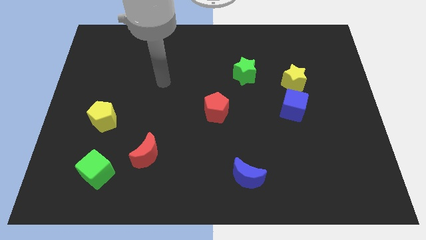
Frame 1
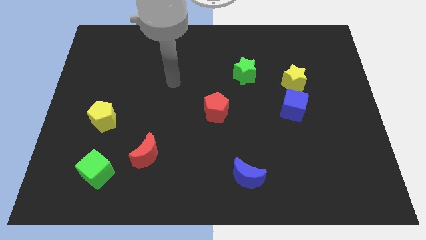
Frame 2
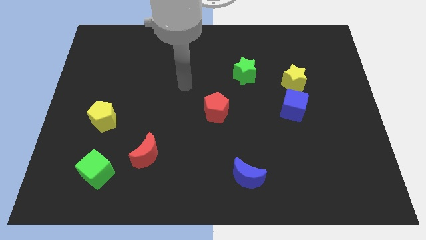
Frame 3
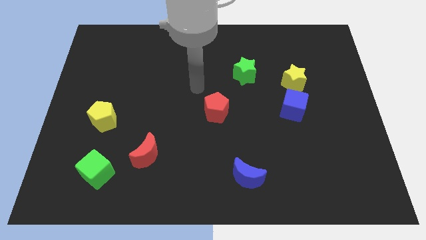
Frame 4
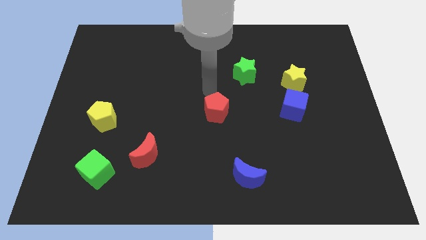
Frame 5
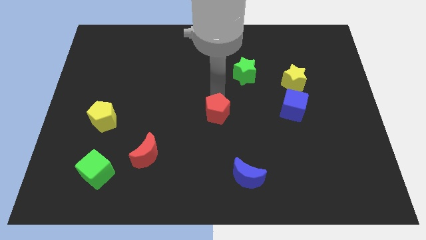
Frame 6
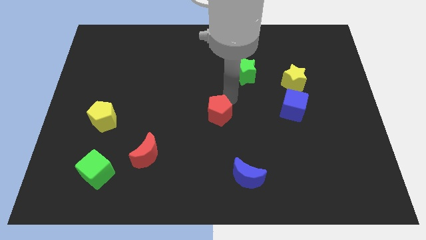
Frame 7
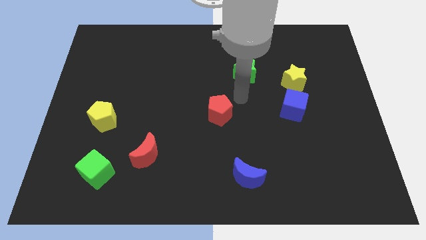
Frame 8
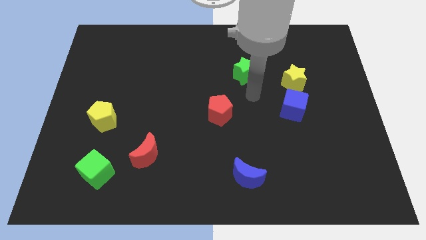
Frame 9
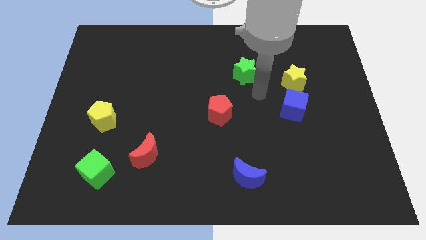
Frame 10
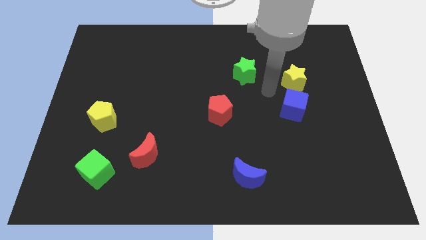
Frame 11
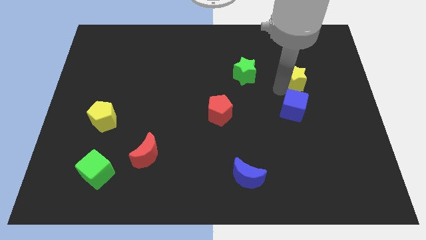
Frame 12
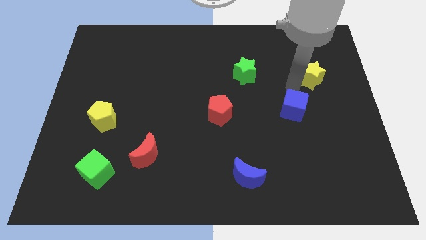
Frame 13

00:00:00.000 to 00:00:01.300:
separate the blue cube from the yellow star

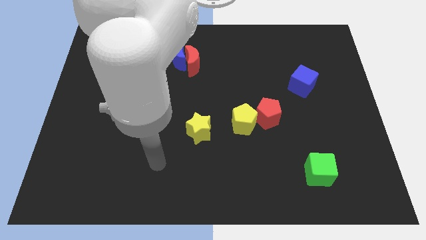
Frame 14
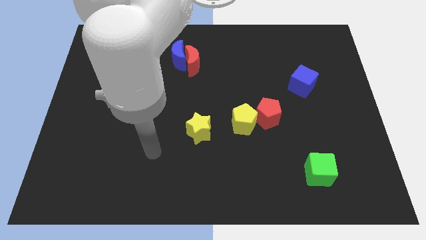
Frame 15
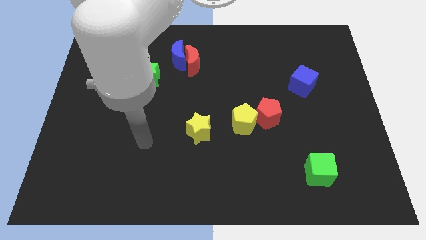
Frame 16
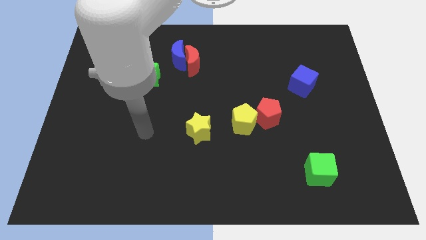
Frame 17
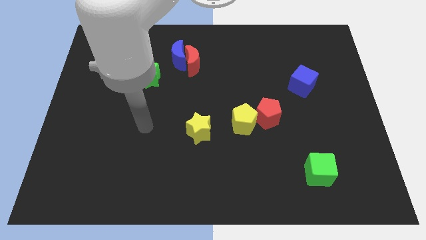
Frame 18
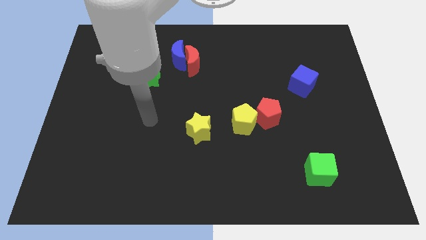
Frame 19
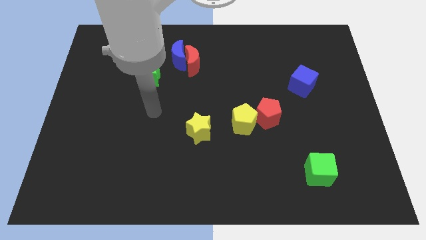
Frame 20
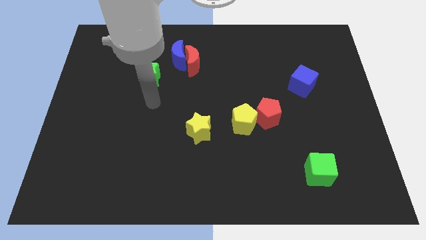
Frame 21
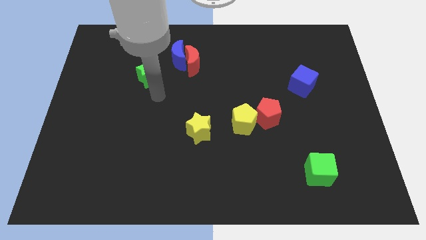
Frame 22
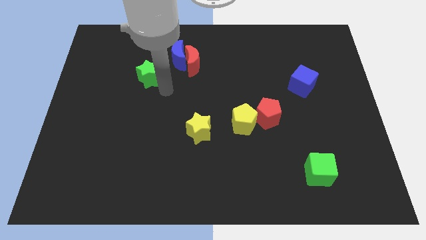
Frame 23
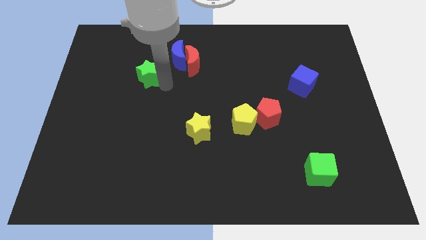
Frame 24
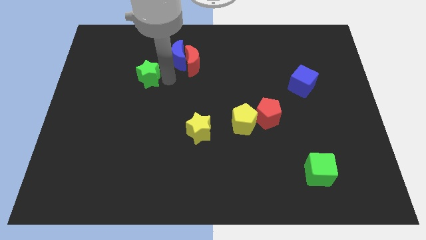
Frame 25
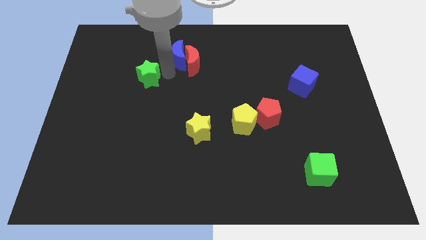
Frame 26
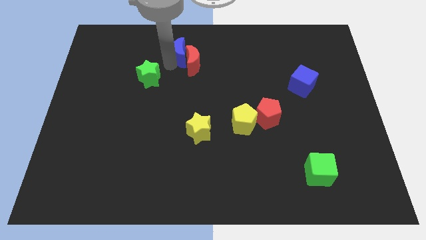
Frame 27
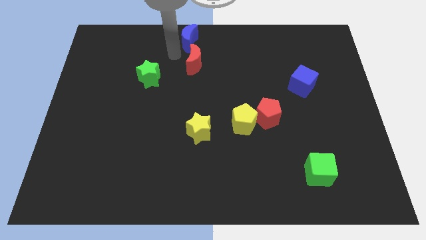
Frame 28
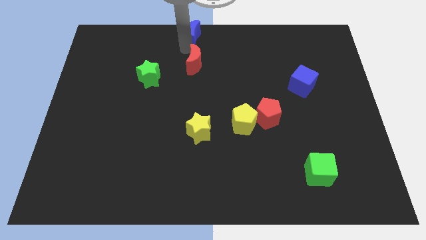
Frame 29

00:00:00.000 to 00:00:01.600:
pull the red moon apart from the blue moon

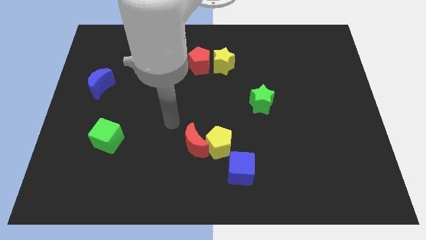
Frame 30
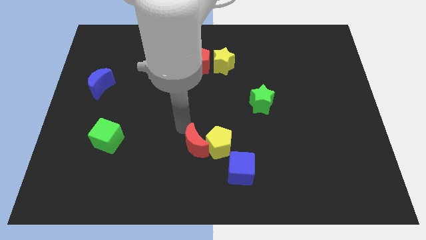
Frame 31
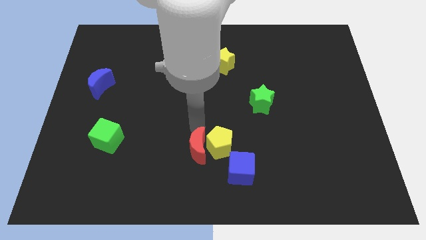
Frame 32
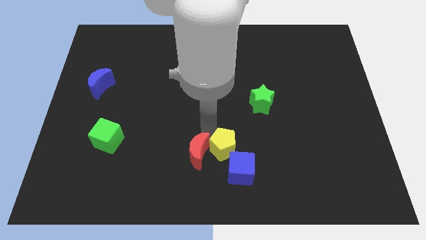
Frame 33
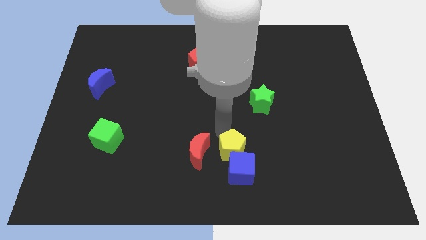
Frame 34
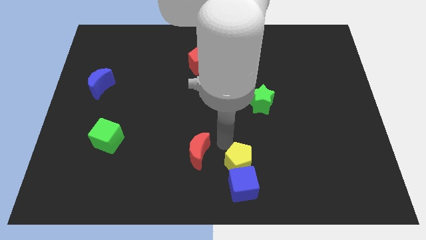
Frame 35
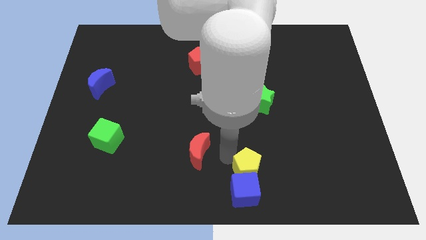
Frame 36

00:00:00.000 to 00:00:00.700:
pull the red moon apart from the yellow pentagon

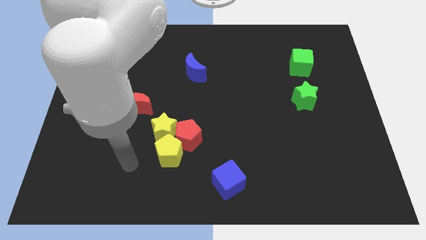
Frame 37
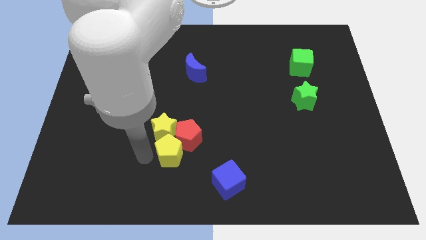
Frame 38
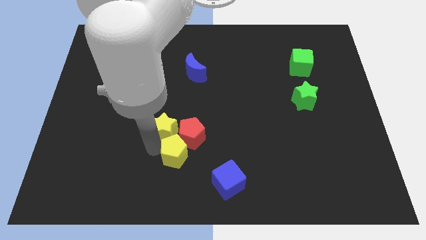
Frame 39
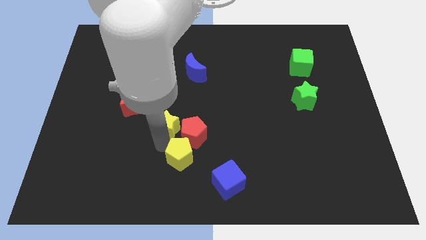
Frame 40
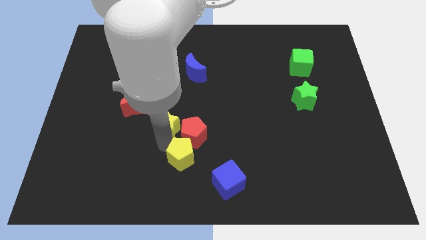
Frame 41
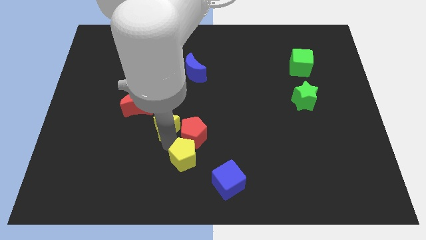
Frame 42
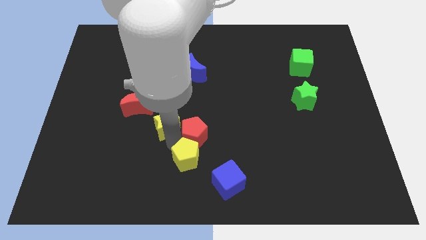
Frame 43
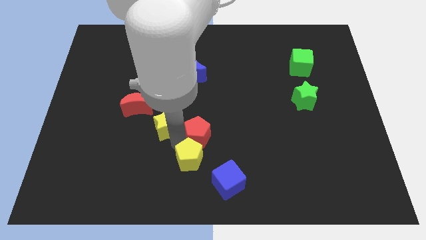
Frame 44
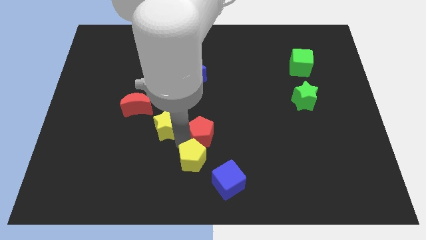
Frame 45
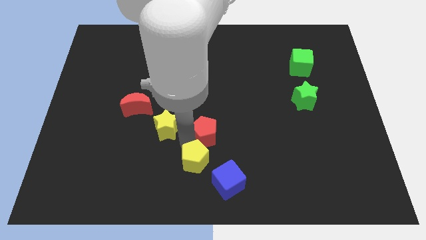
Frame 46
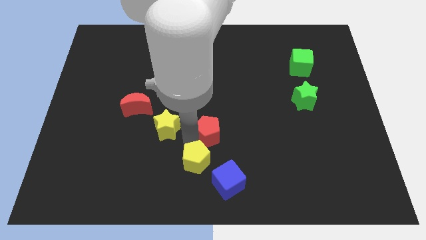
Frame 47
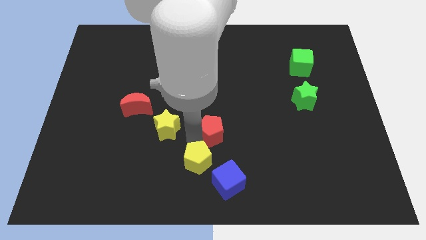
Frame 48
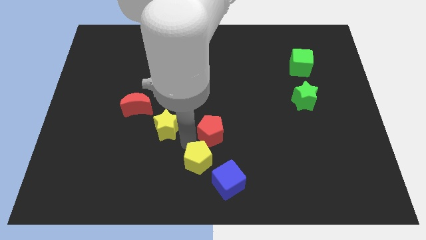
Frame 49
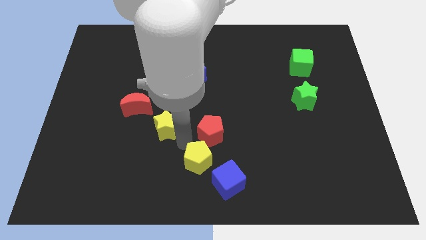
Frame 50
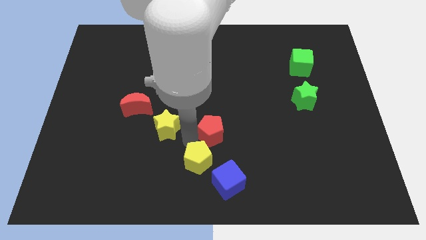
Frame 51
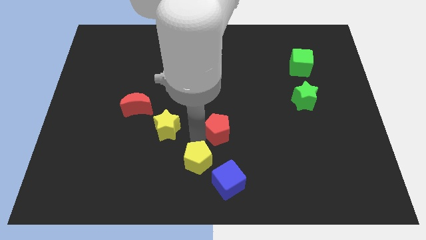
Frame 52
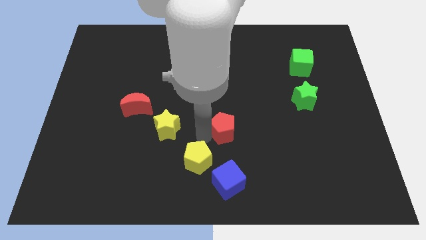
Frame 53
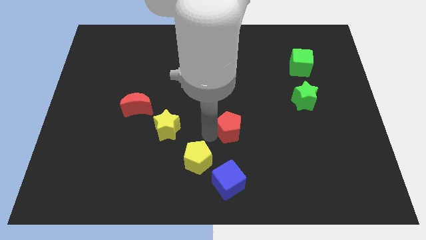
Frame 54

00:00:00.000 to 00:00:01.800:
move the red pentagon away from the yellow star and yellow pentagon

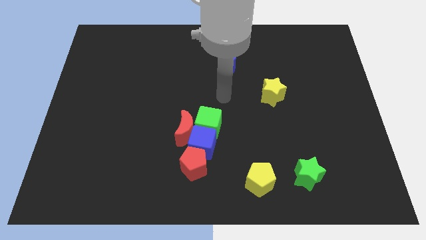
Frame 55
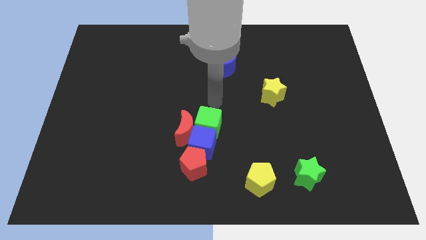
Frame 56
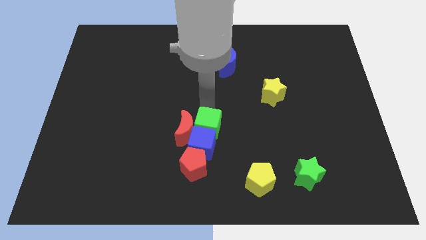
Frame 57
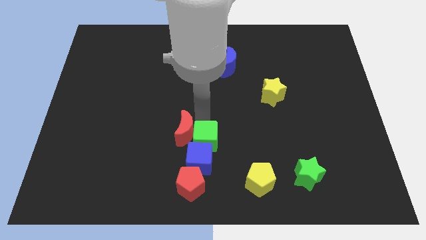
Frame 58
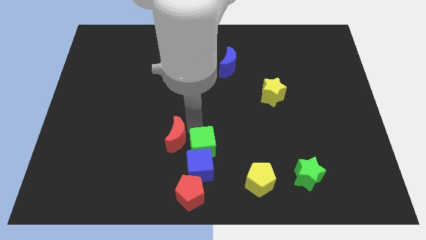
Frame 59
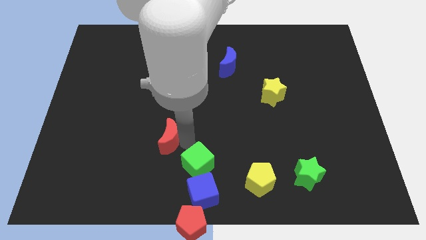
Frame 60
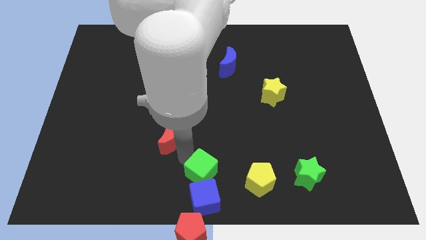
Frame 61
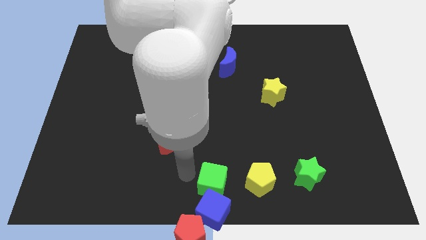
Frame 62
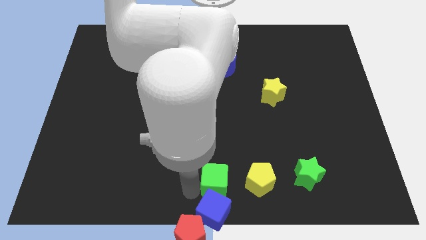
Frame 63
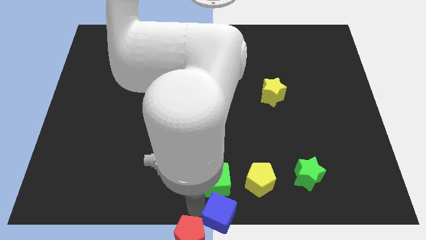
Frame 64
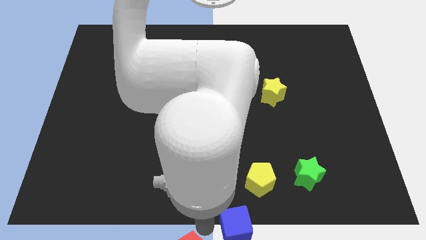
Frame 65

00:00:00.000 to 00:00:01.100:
separate the blue cube from the group

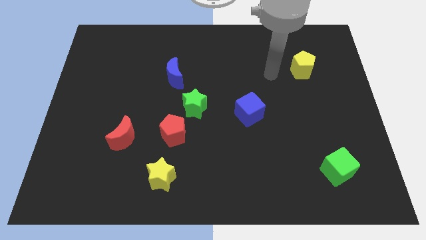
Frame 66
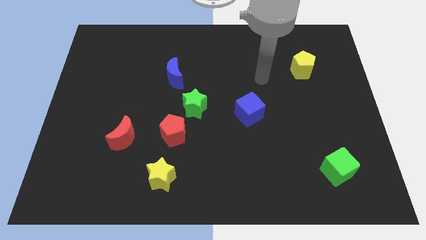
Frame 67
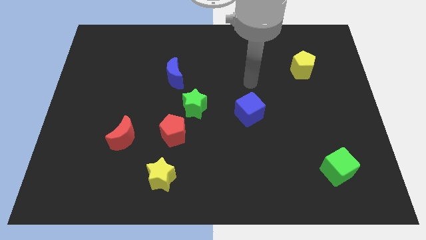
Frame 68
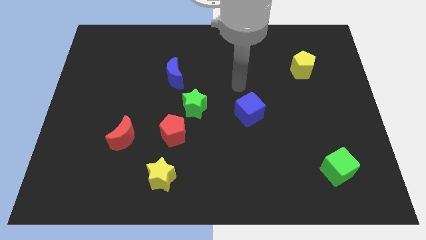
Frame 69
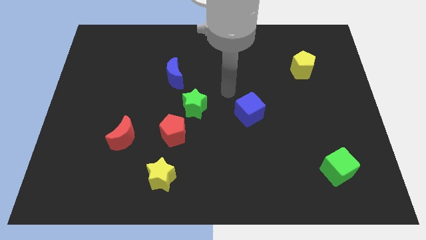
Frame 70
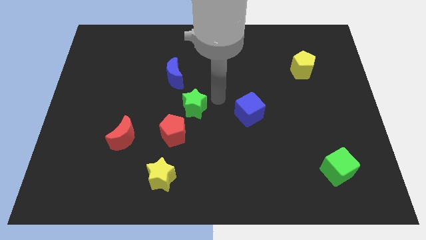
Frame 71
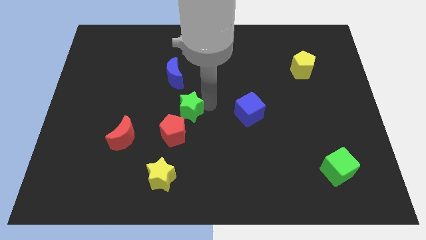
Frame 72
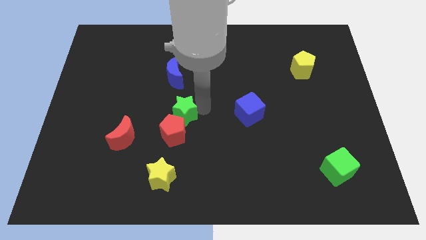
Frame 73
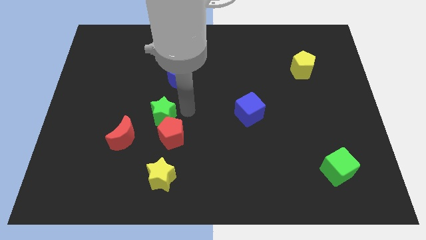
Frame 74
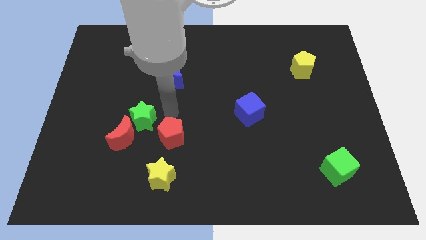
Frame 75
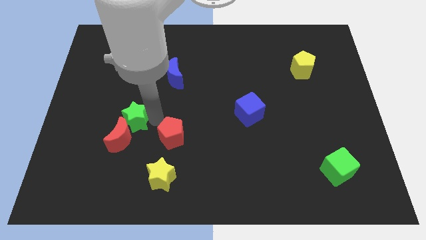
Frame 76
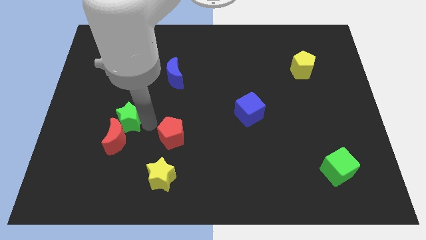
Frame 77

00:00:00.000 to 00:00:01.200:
separate the red pentagon from the green star

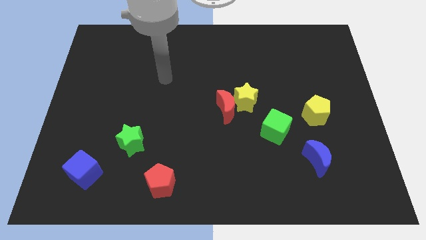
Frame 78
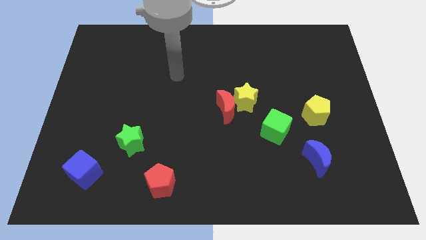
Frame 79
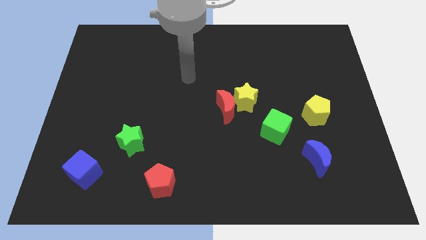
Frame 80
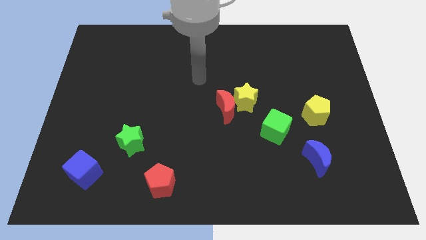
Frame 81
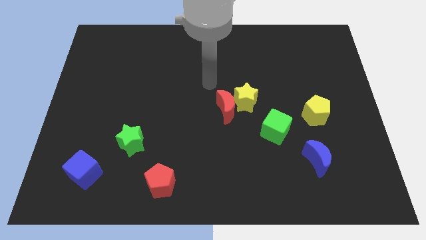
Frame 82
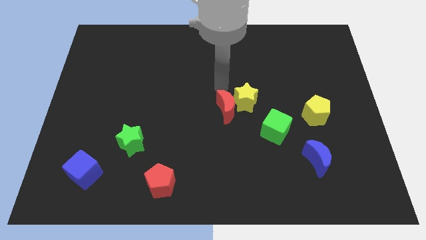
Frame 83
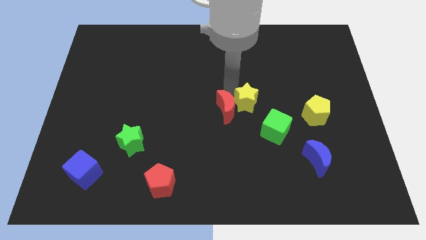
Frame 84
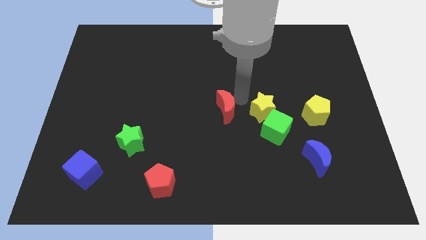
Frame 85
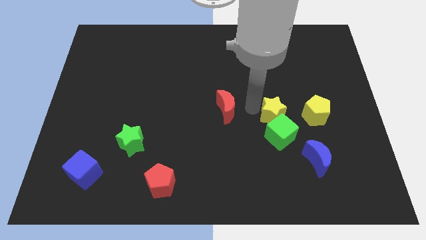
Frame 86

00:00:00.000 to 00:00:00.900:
pull the red moon apart from the yellow star

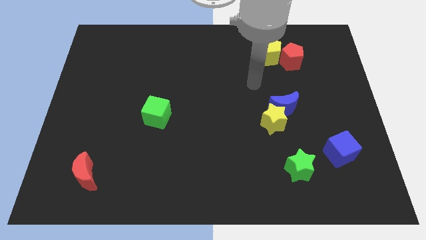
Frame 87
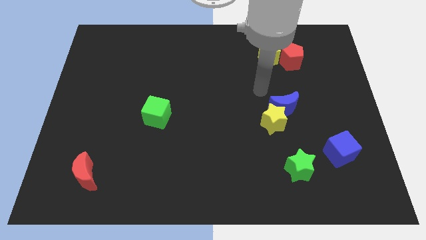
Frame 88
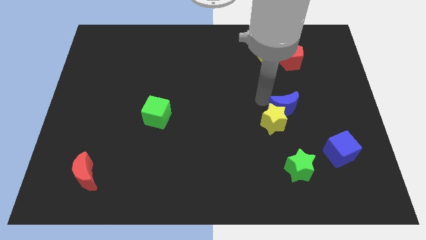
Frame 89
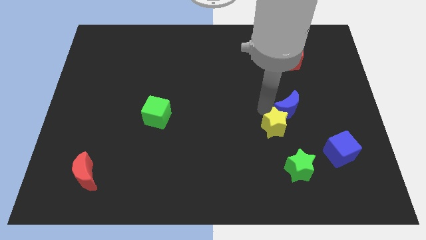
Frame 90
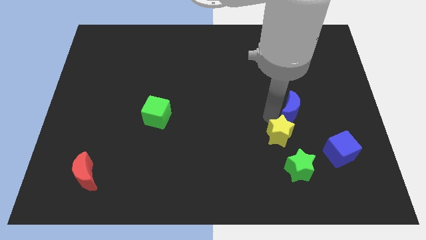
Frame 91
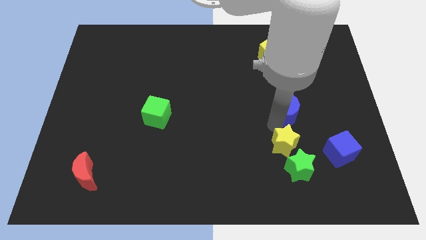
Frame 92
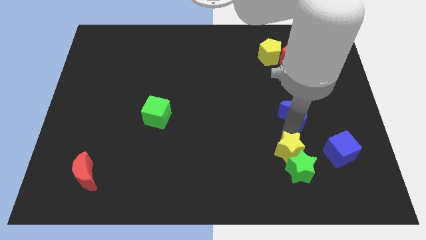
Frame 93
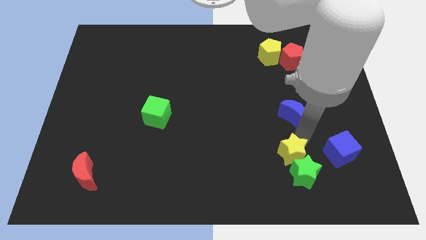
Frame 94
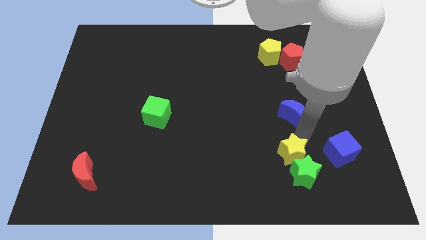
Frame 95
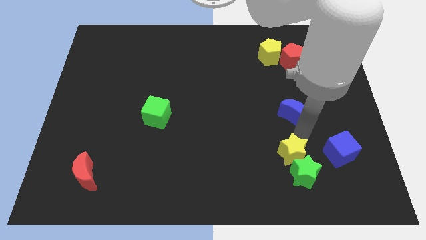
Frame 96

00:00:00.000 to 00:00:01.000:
move the blue moon away from the yellow star
